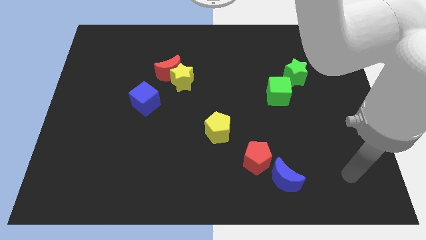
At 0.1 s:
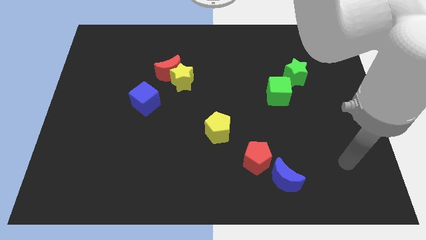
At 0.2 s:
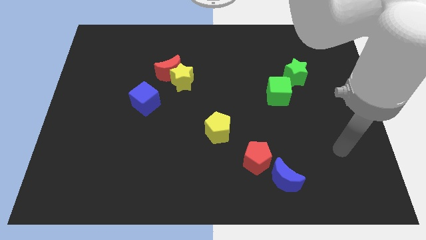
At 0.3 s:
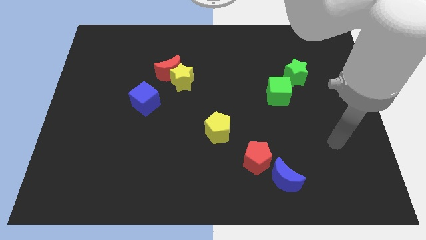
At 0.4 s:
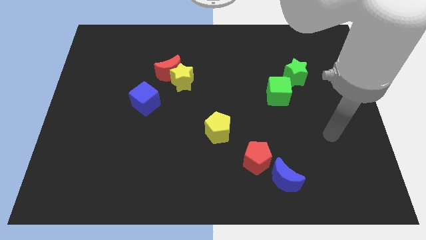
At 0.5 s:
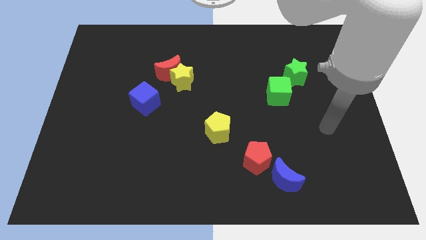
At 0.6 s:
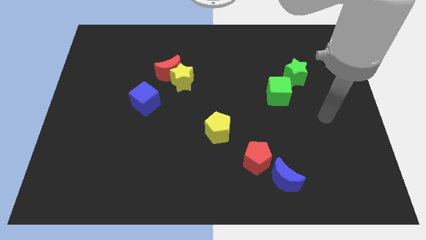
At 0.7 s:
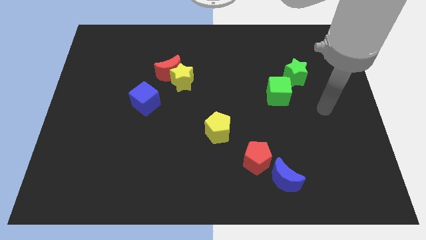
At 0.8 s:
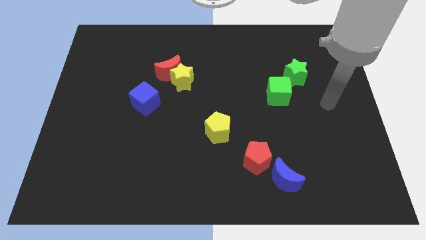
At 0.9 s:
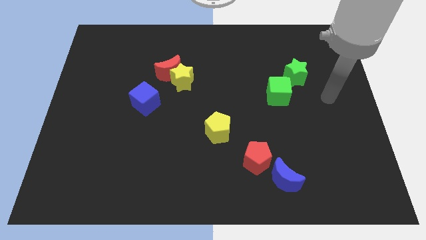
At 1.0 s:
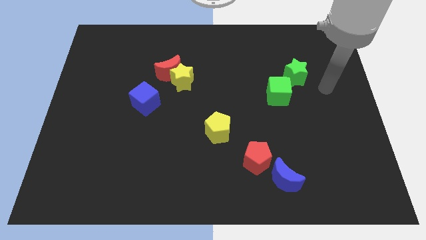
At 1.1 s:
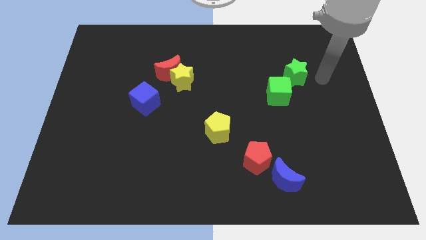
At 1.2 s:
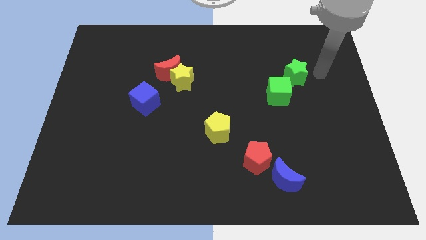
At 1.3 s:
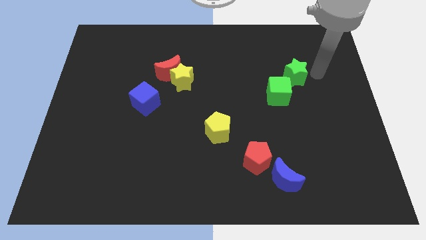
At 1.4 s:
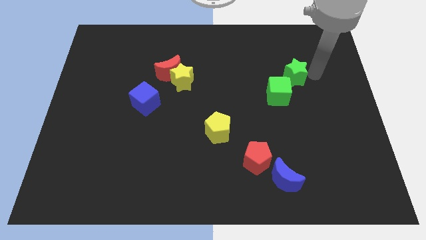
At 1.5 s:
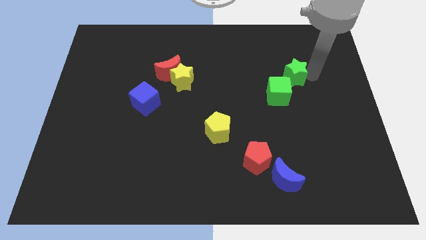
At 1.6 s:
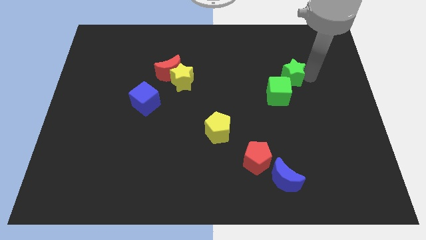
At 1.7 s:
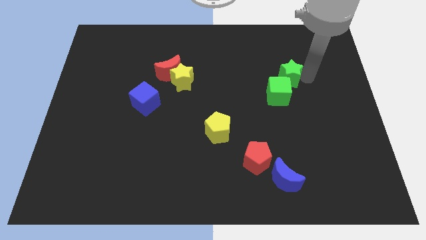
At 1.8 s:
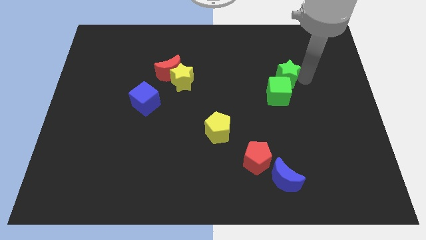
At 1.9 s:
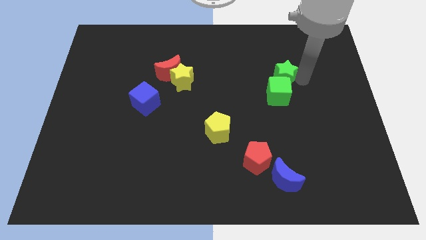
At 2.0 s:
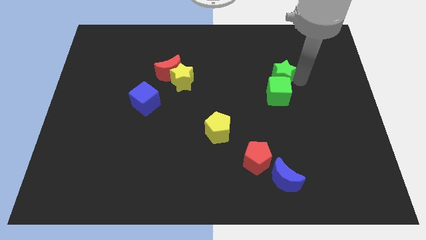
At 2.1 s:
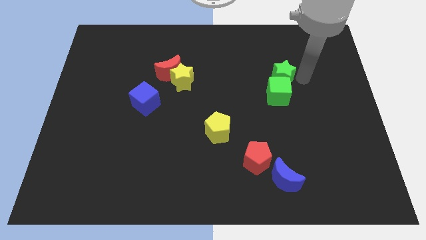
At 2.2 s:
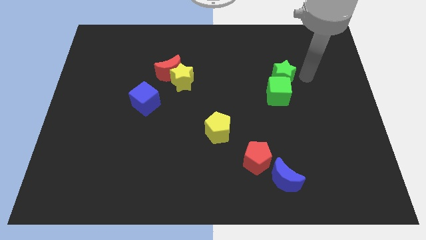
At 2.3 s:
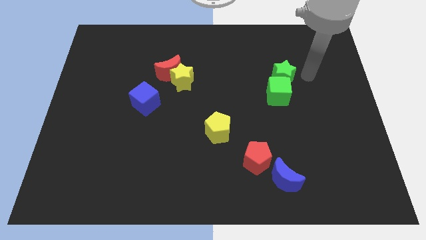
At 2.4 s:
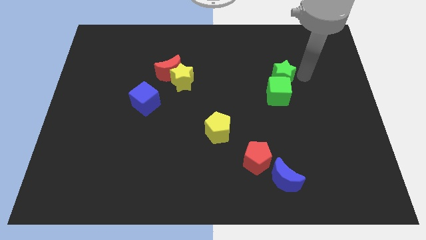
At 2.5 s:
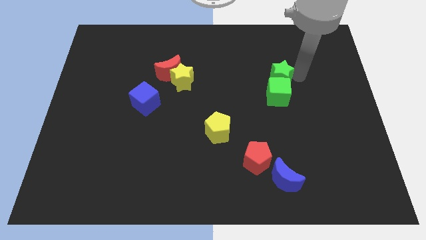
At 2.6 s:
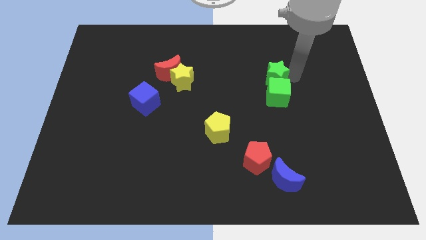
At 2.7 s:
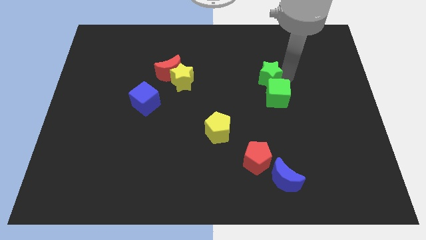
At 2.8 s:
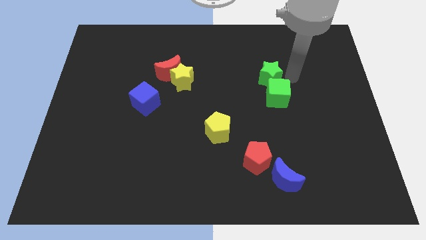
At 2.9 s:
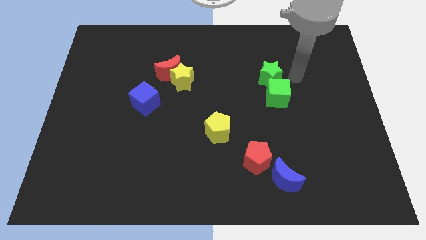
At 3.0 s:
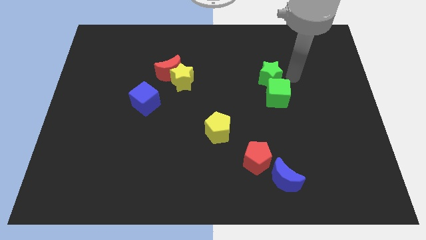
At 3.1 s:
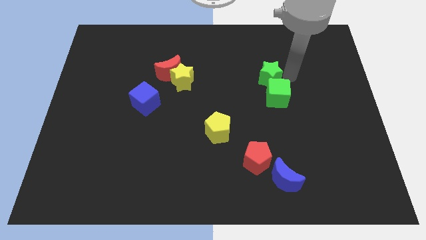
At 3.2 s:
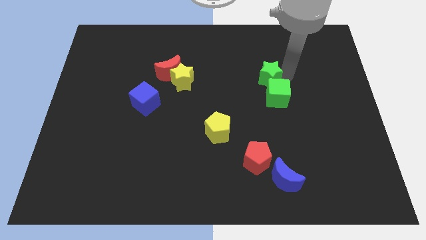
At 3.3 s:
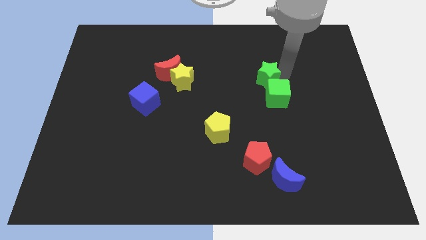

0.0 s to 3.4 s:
push the green star a little to the left

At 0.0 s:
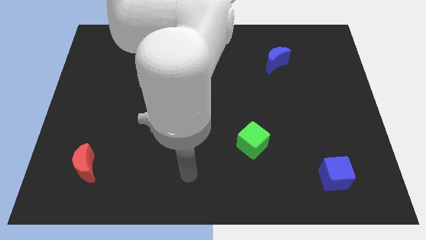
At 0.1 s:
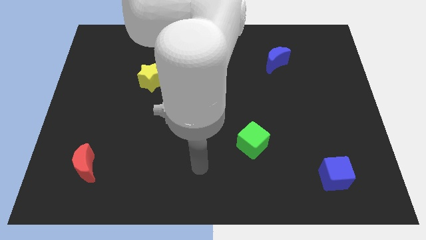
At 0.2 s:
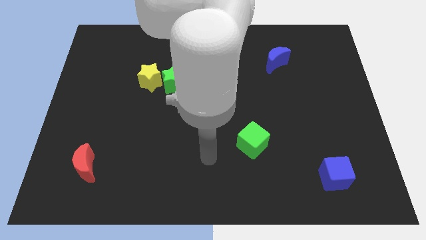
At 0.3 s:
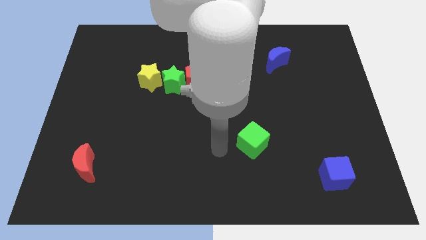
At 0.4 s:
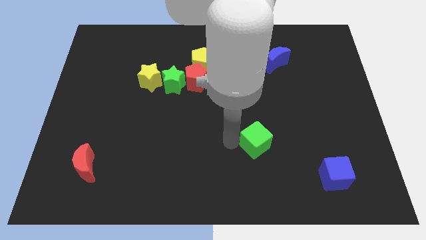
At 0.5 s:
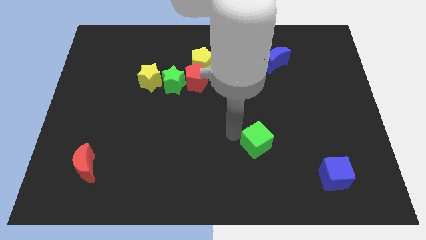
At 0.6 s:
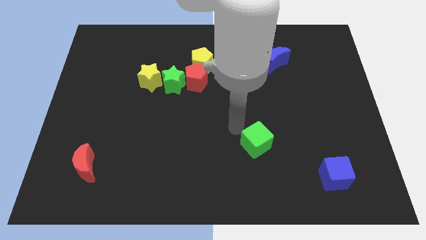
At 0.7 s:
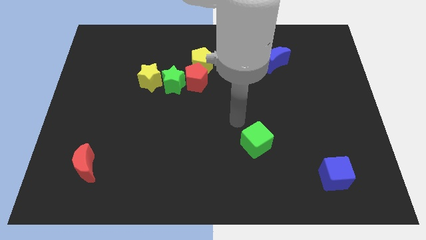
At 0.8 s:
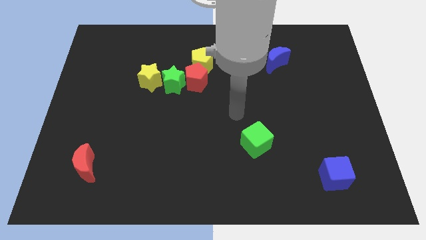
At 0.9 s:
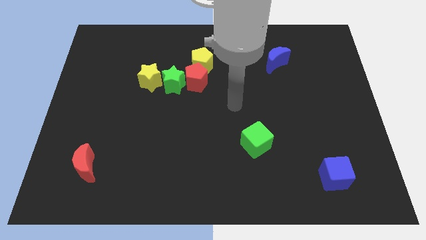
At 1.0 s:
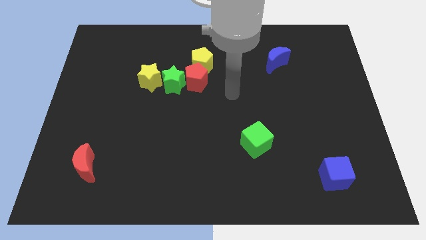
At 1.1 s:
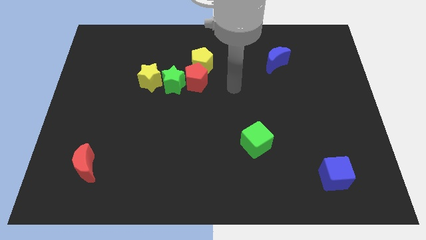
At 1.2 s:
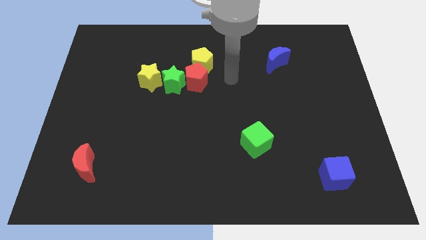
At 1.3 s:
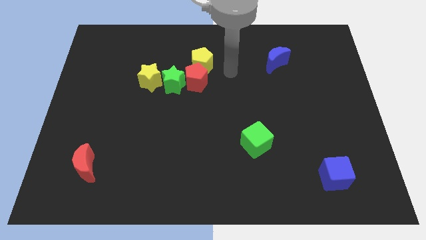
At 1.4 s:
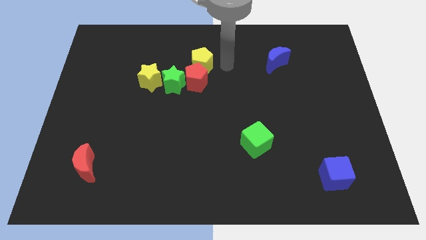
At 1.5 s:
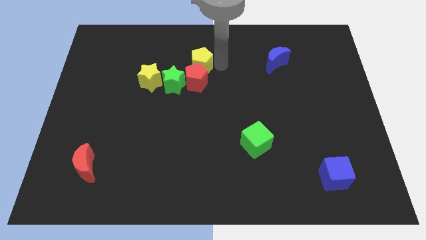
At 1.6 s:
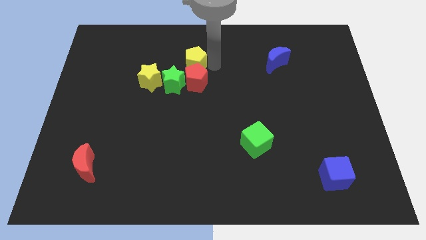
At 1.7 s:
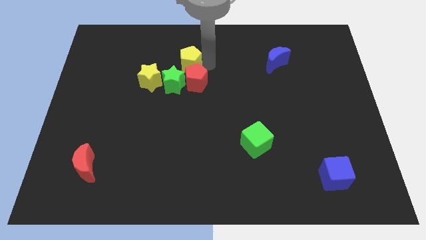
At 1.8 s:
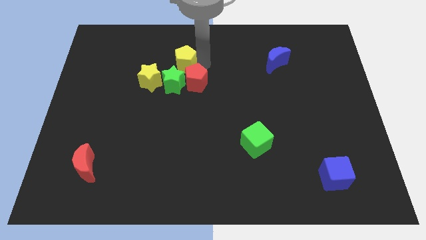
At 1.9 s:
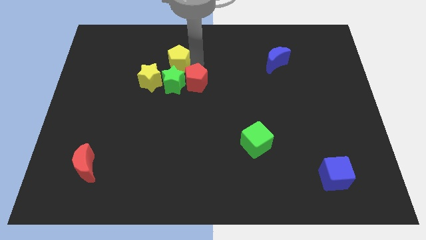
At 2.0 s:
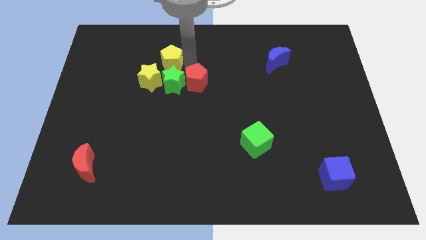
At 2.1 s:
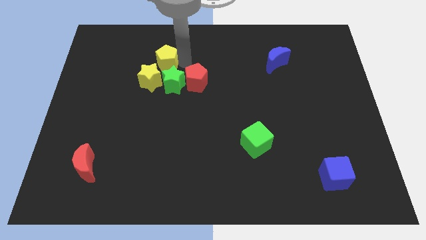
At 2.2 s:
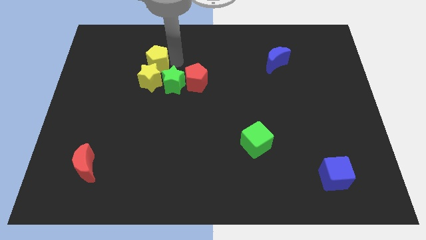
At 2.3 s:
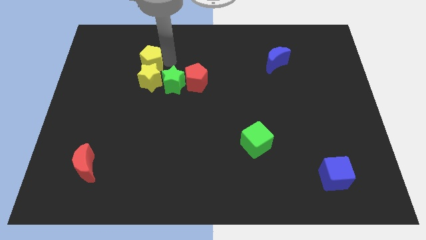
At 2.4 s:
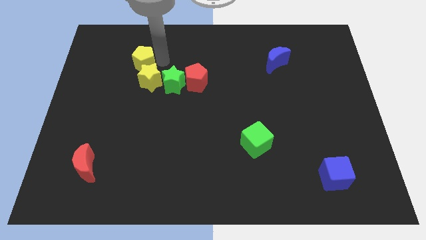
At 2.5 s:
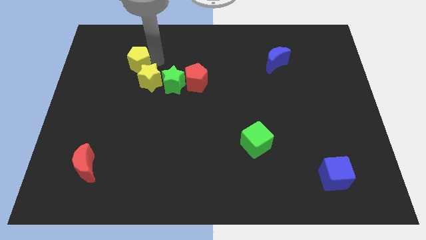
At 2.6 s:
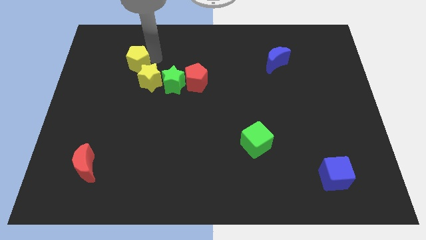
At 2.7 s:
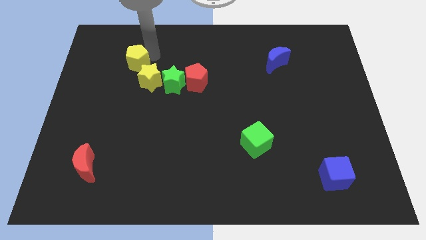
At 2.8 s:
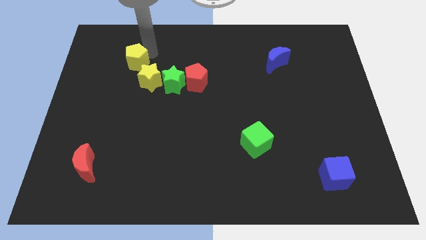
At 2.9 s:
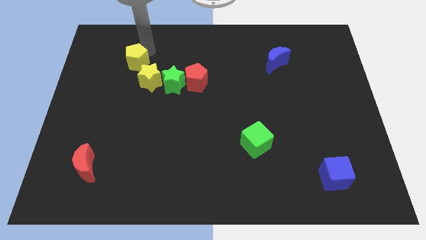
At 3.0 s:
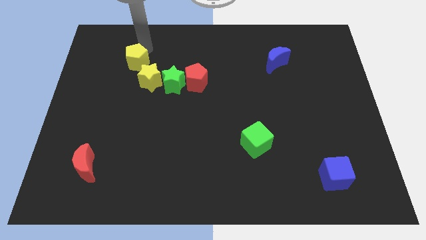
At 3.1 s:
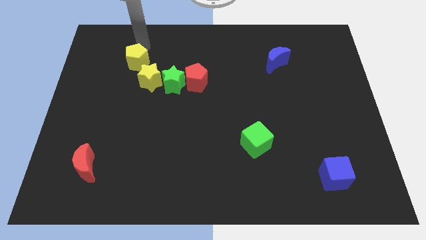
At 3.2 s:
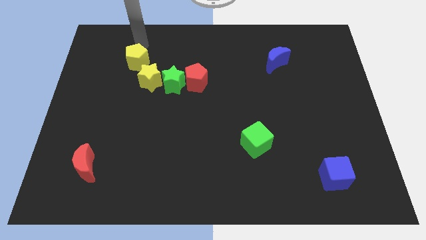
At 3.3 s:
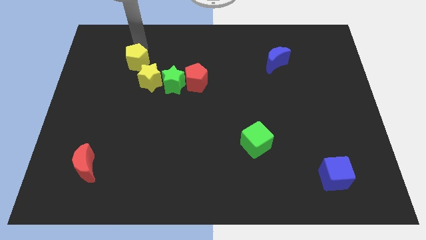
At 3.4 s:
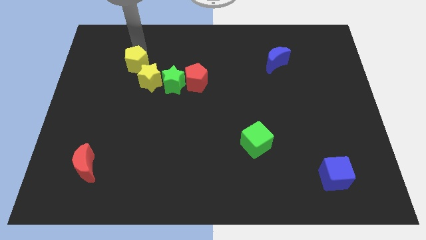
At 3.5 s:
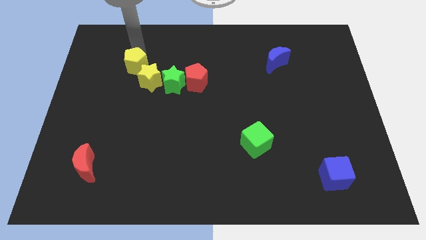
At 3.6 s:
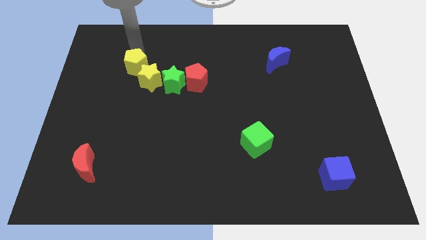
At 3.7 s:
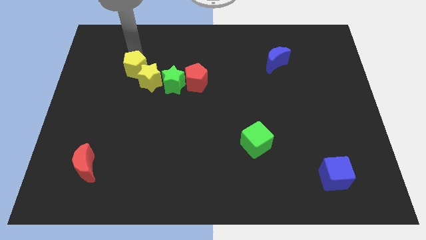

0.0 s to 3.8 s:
slide the yellow pentagon downwards and left a little

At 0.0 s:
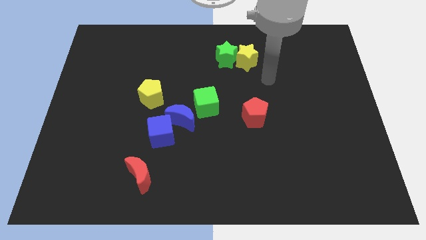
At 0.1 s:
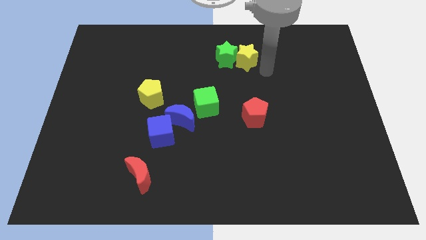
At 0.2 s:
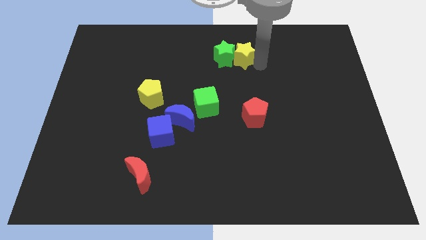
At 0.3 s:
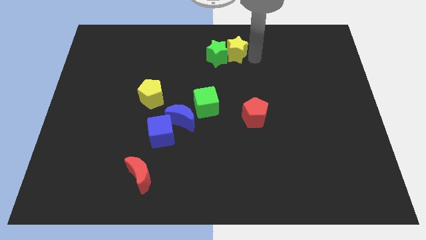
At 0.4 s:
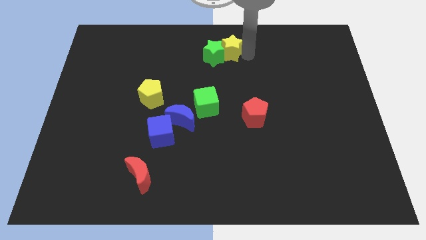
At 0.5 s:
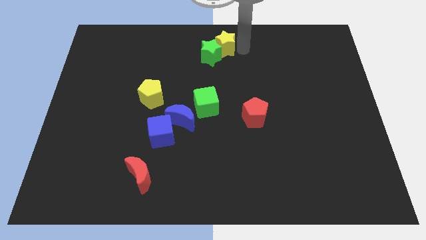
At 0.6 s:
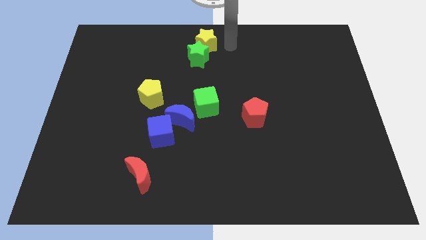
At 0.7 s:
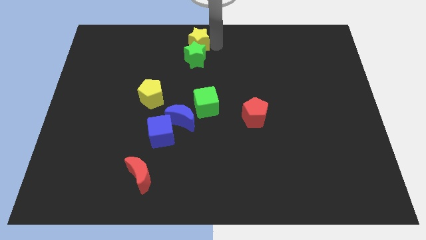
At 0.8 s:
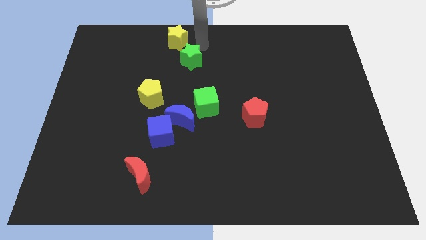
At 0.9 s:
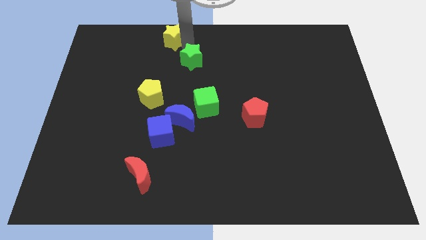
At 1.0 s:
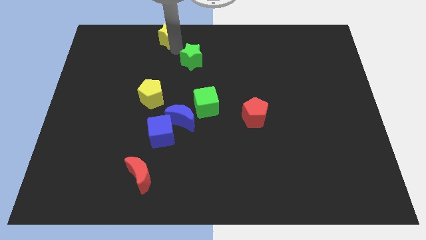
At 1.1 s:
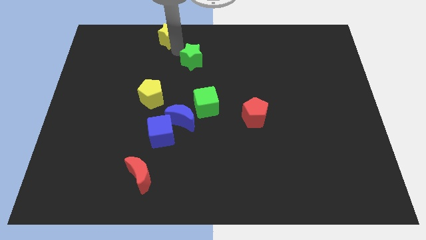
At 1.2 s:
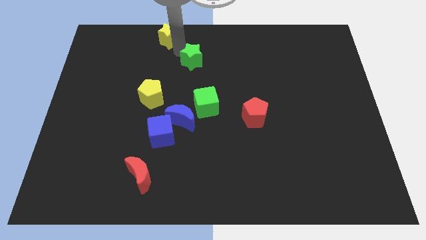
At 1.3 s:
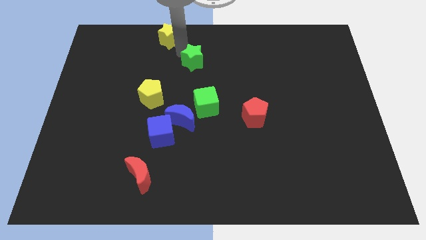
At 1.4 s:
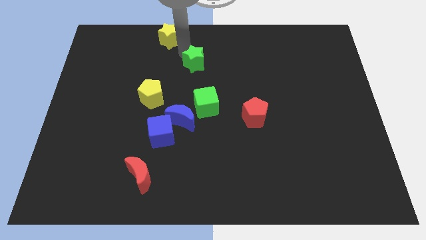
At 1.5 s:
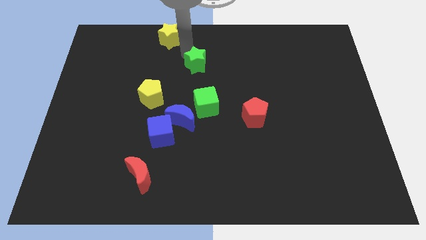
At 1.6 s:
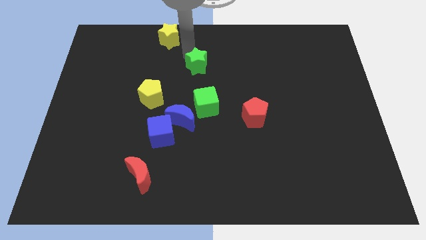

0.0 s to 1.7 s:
slide the green star somewhat downwards and left
